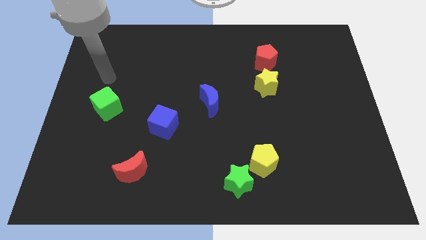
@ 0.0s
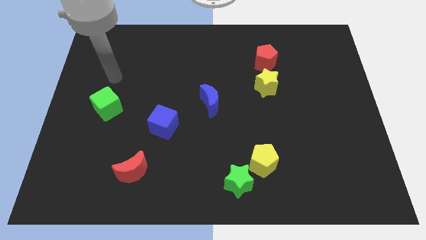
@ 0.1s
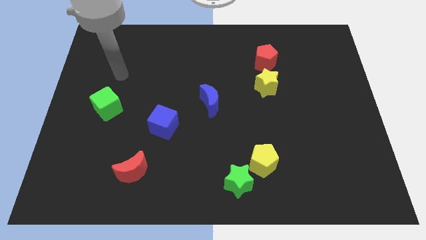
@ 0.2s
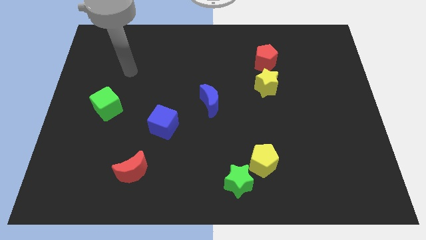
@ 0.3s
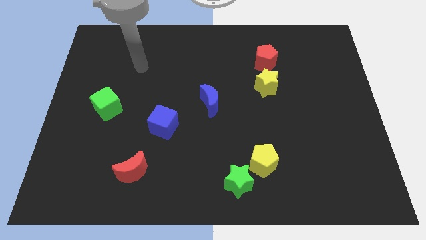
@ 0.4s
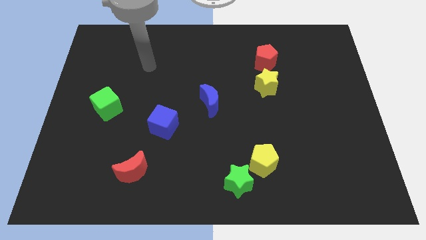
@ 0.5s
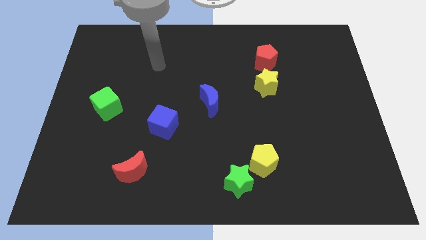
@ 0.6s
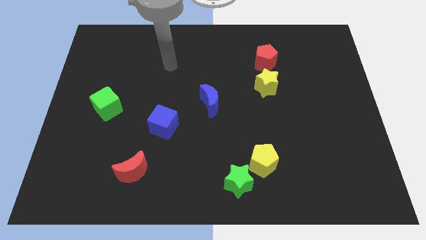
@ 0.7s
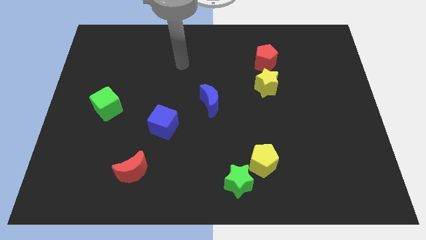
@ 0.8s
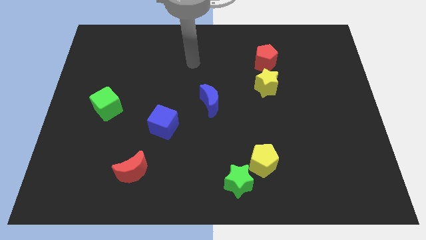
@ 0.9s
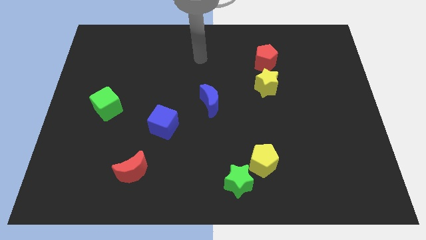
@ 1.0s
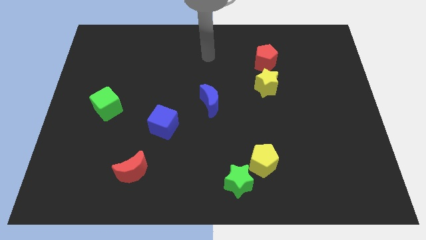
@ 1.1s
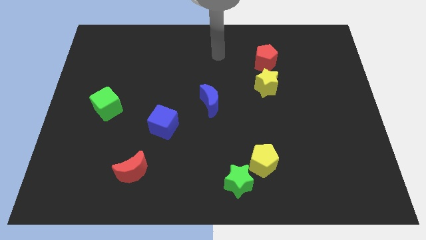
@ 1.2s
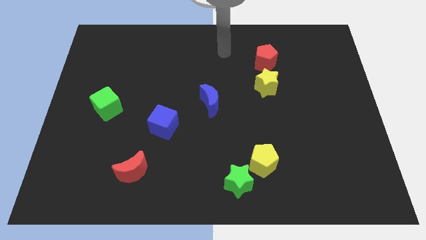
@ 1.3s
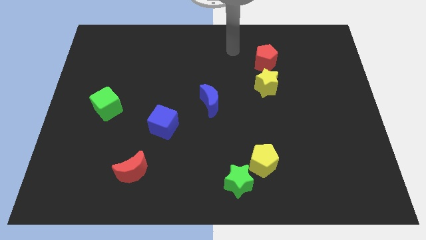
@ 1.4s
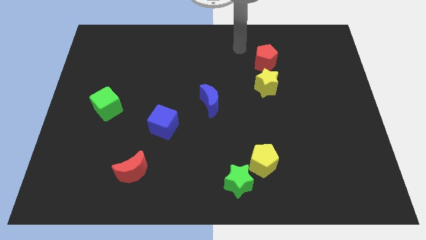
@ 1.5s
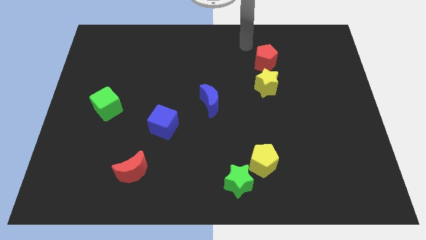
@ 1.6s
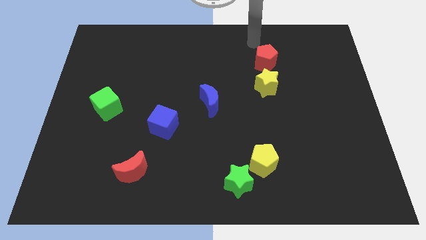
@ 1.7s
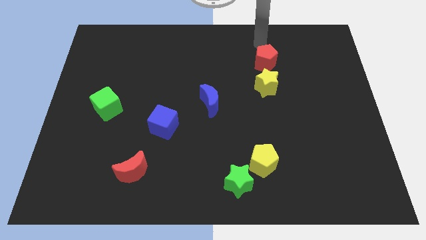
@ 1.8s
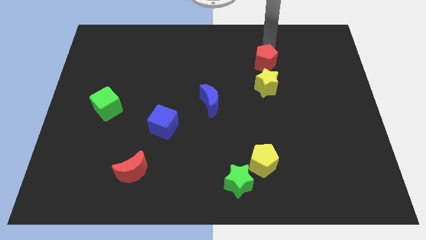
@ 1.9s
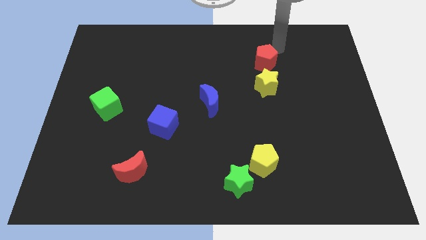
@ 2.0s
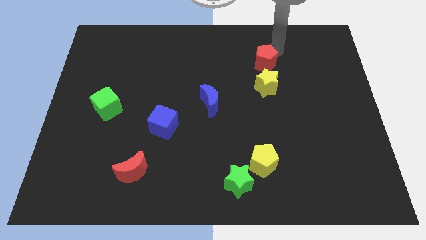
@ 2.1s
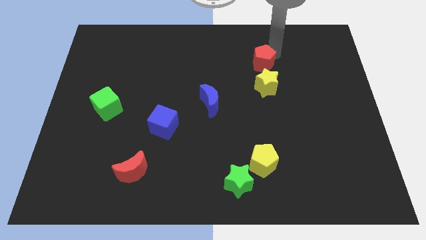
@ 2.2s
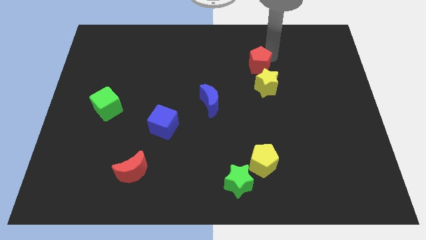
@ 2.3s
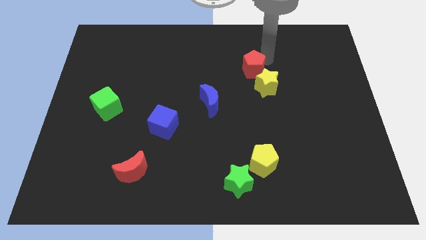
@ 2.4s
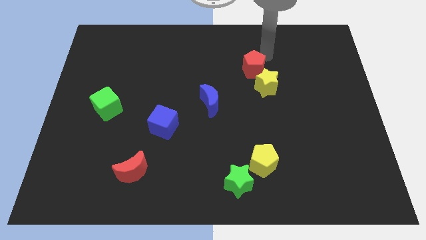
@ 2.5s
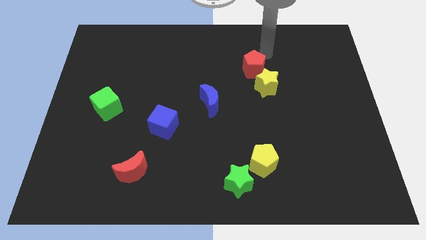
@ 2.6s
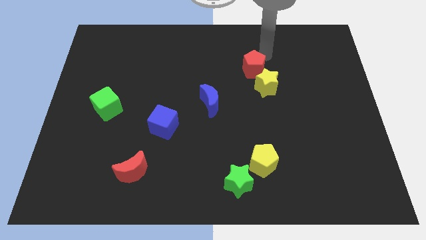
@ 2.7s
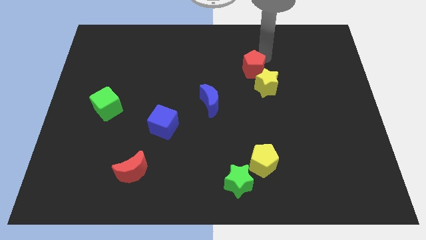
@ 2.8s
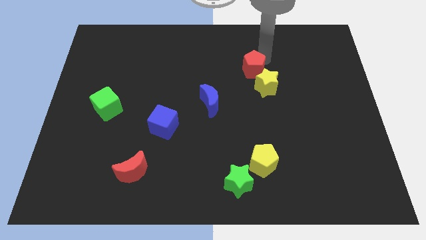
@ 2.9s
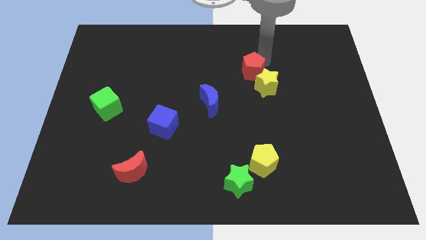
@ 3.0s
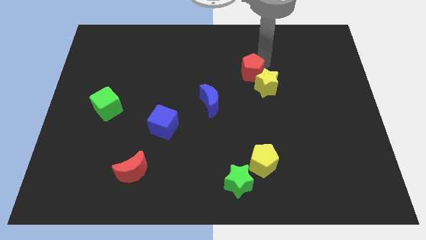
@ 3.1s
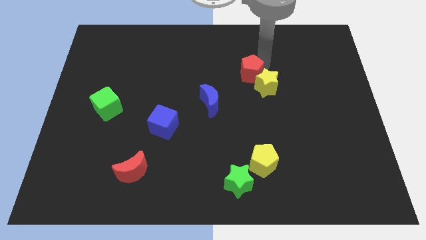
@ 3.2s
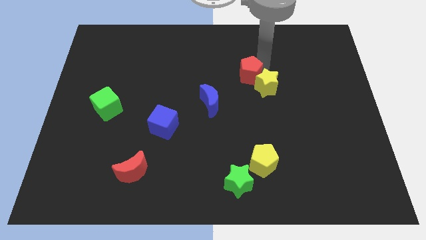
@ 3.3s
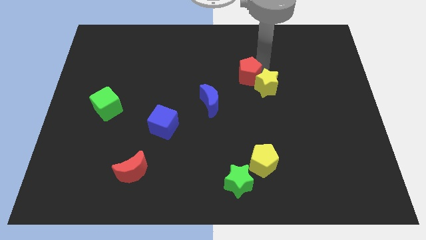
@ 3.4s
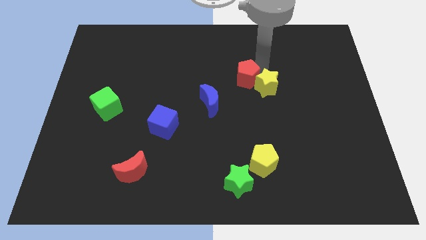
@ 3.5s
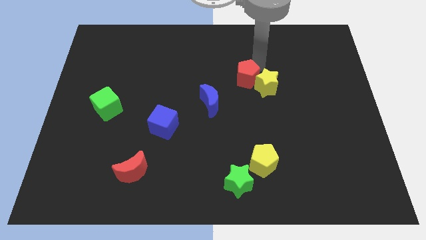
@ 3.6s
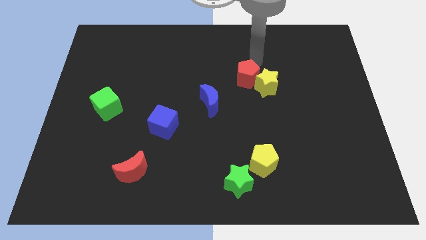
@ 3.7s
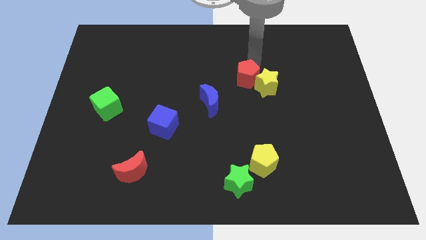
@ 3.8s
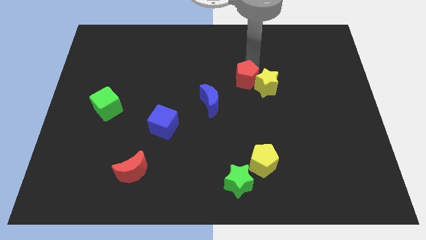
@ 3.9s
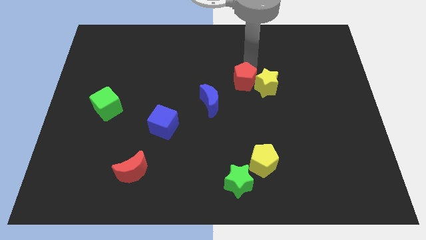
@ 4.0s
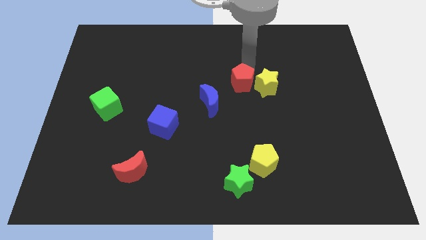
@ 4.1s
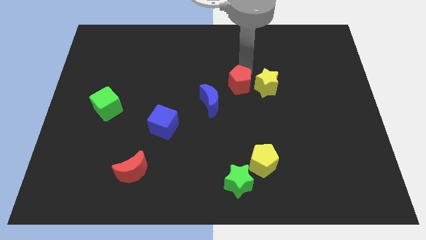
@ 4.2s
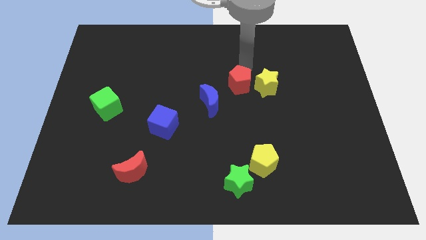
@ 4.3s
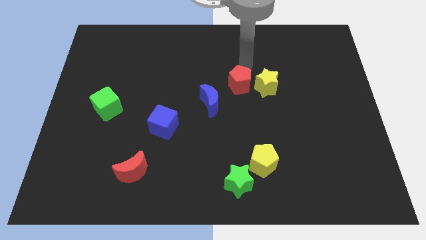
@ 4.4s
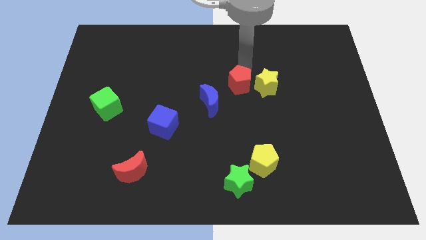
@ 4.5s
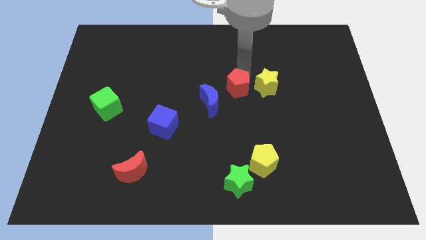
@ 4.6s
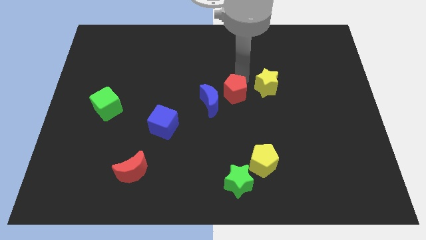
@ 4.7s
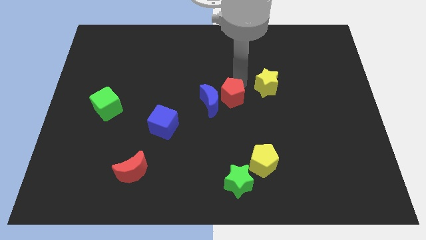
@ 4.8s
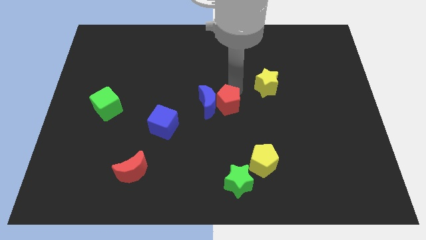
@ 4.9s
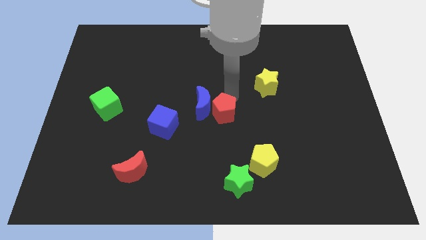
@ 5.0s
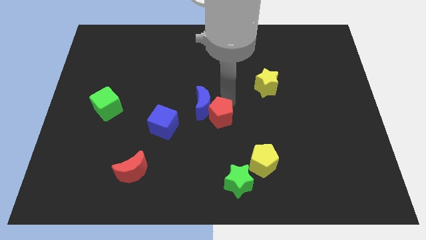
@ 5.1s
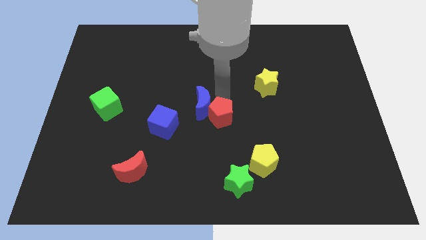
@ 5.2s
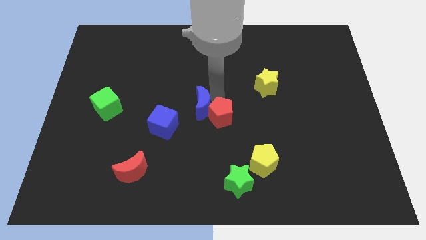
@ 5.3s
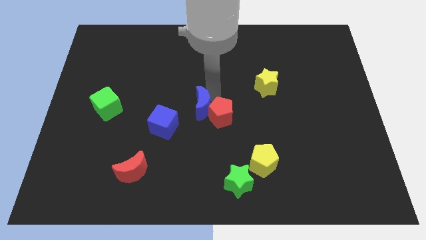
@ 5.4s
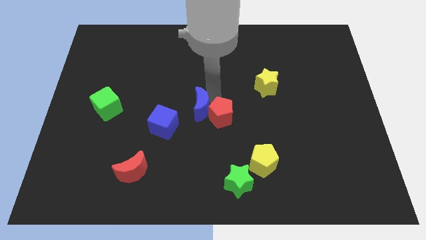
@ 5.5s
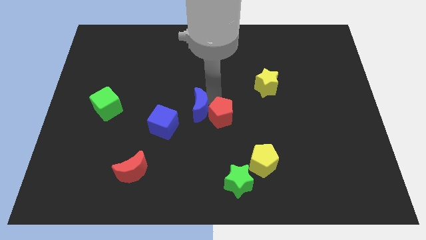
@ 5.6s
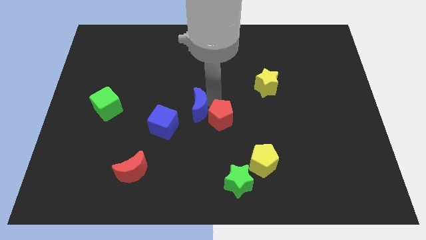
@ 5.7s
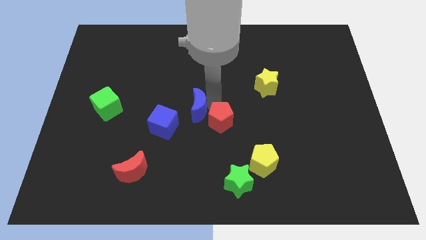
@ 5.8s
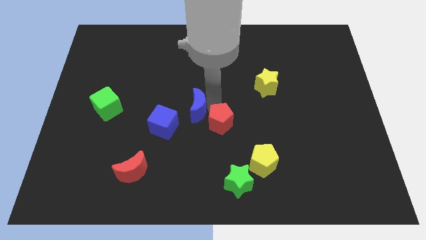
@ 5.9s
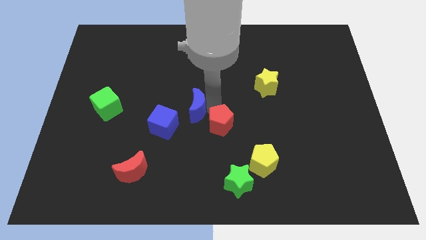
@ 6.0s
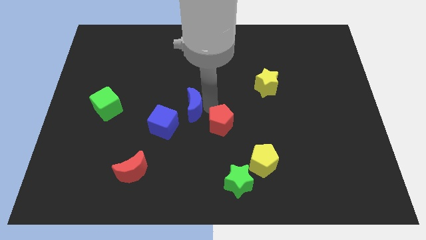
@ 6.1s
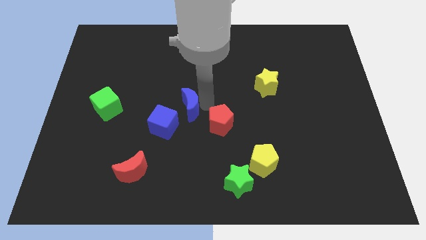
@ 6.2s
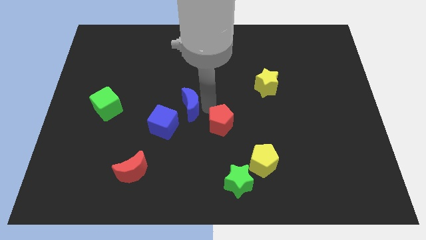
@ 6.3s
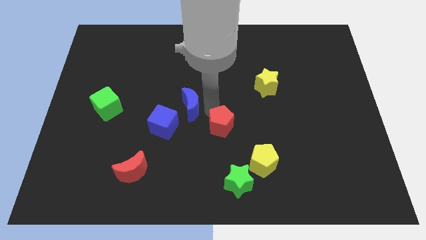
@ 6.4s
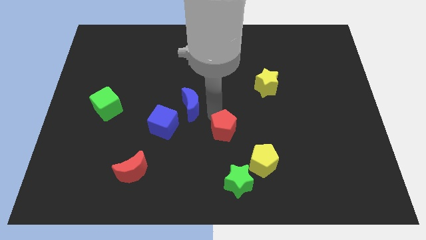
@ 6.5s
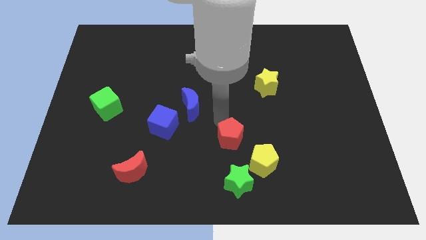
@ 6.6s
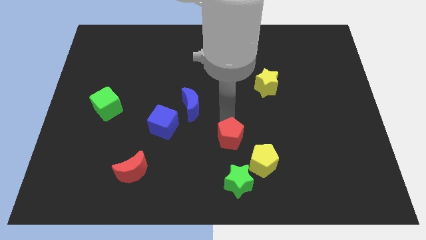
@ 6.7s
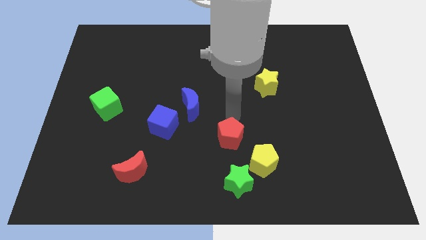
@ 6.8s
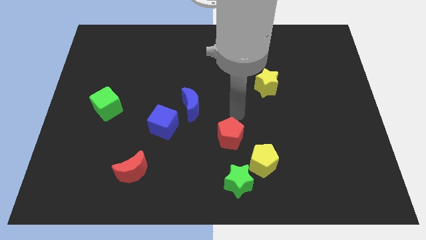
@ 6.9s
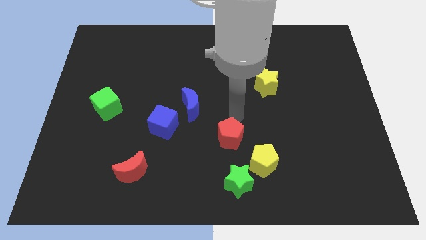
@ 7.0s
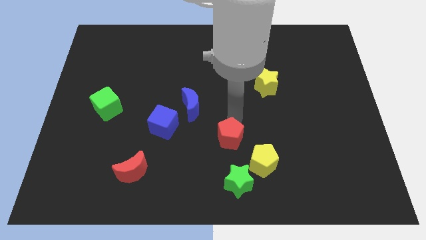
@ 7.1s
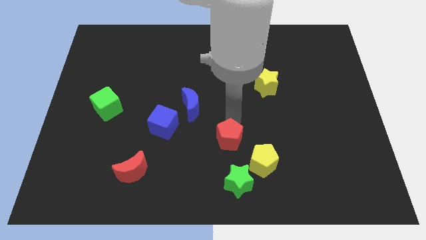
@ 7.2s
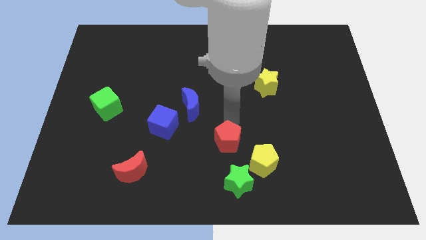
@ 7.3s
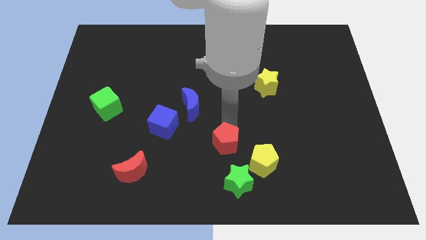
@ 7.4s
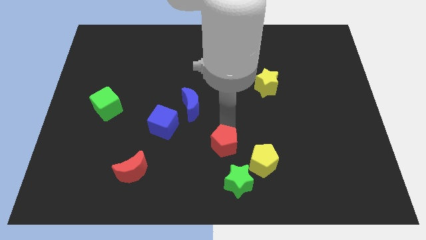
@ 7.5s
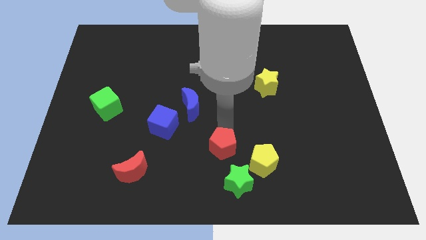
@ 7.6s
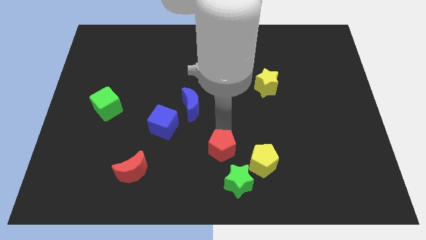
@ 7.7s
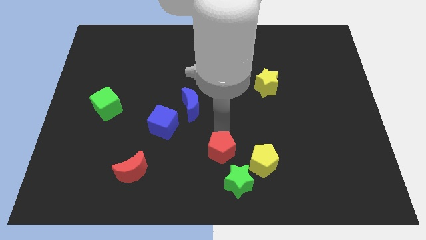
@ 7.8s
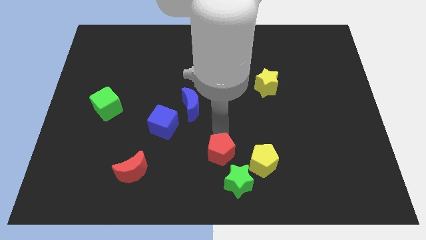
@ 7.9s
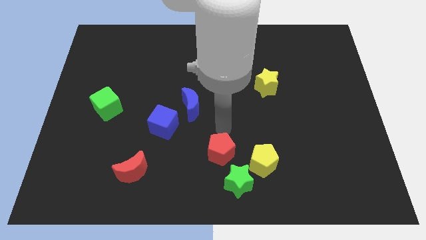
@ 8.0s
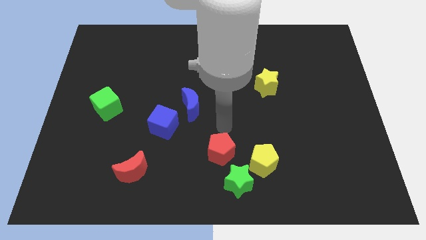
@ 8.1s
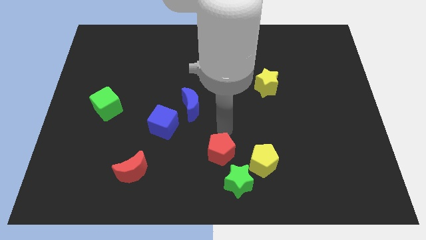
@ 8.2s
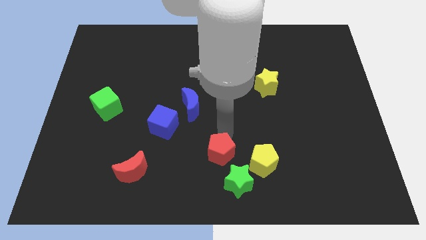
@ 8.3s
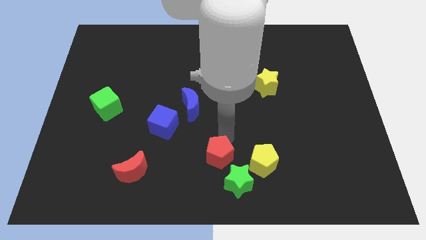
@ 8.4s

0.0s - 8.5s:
slide the red pentagon to the bottom side
